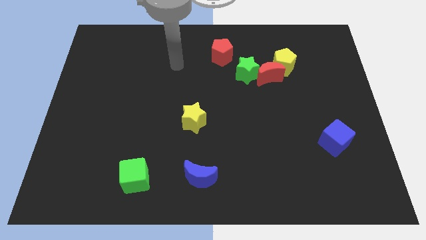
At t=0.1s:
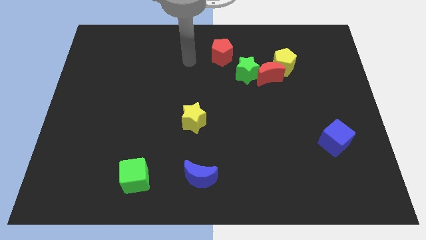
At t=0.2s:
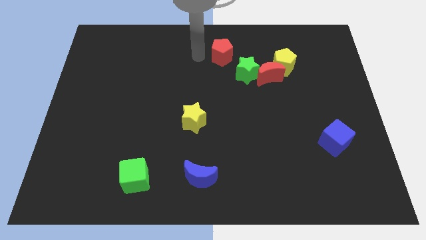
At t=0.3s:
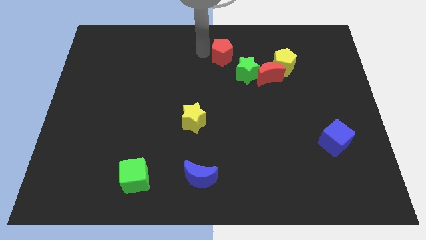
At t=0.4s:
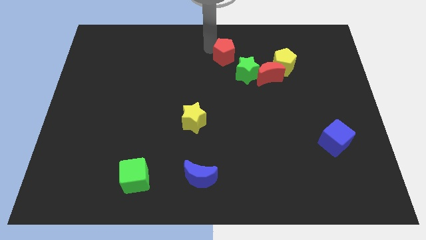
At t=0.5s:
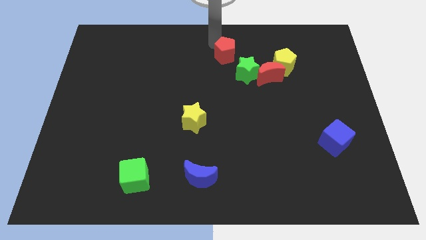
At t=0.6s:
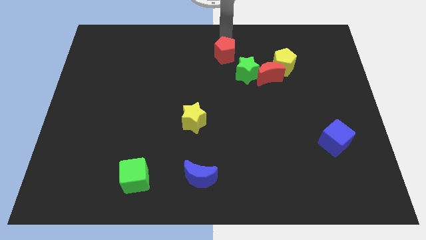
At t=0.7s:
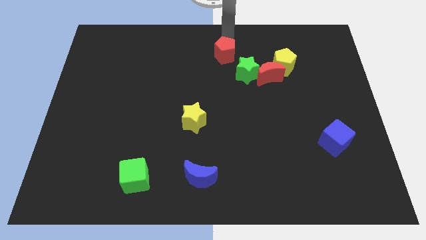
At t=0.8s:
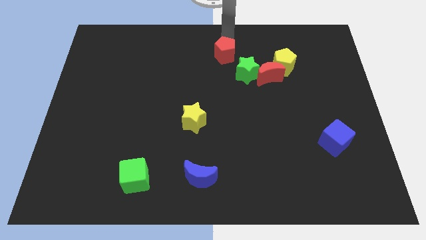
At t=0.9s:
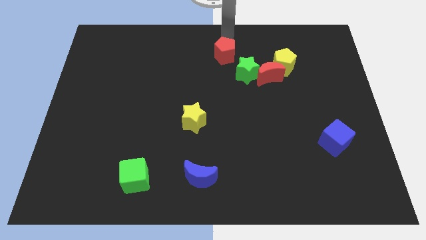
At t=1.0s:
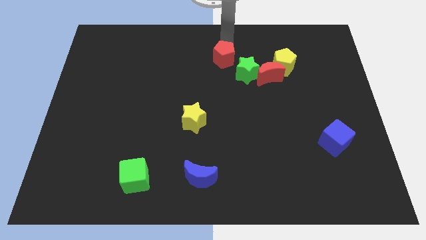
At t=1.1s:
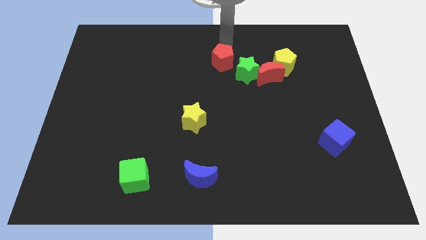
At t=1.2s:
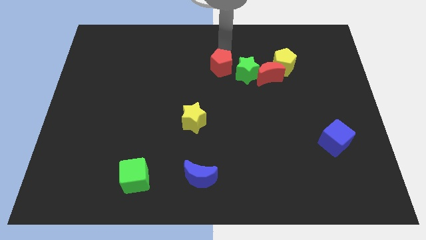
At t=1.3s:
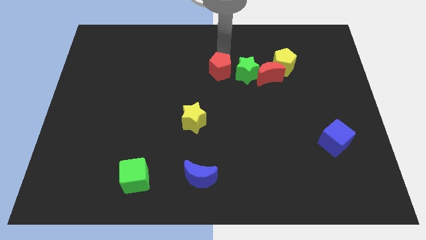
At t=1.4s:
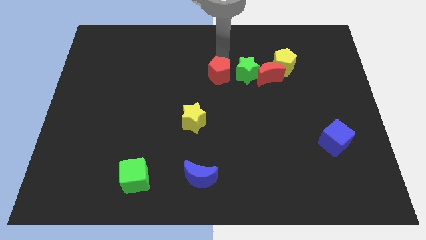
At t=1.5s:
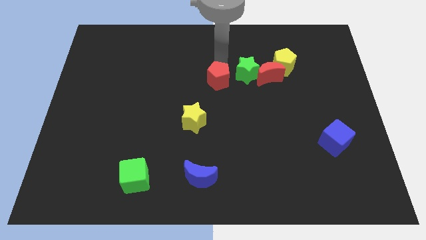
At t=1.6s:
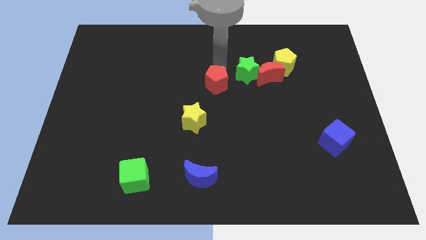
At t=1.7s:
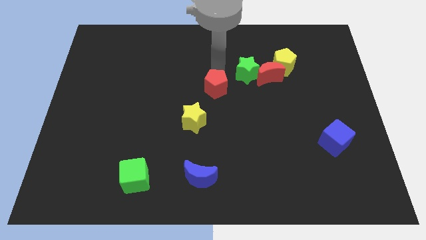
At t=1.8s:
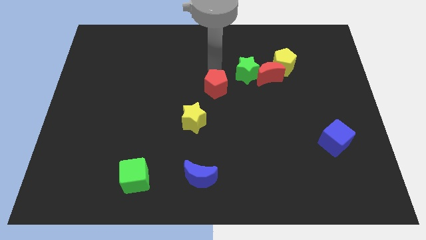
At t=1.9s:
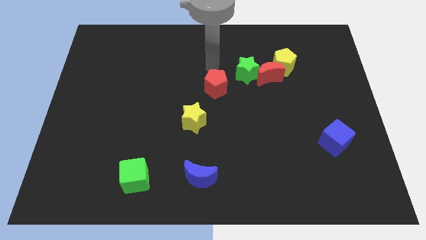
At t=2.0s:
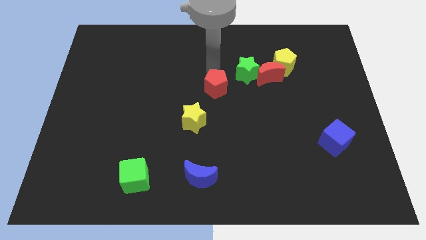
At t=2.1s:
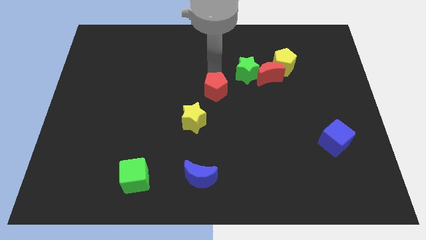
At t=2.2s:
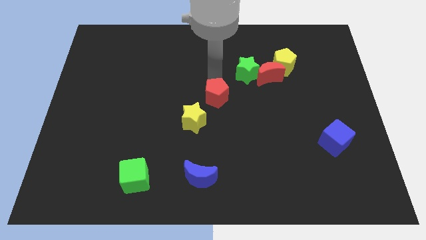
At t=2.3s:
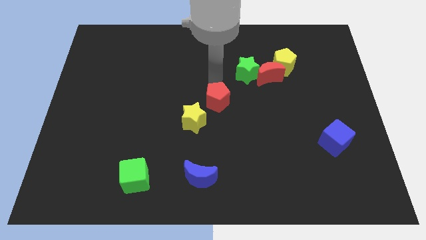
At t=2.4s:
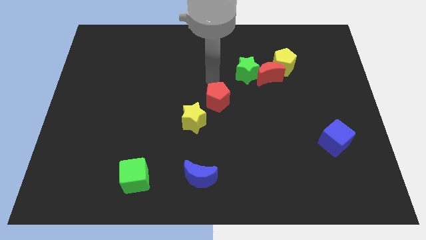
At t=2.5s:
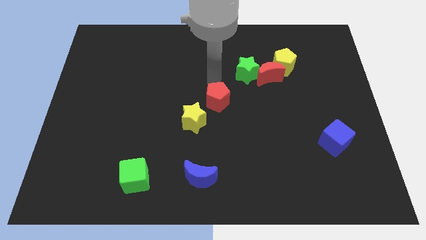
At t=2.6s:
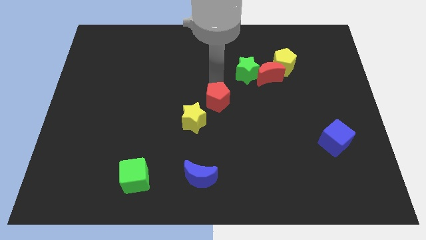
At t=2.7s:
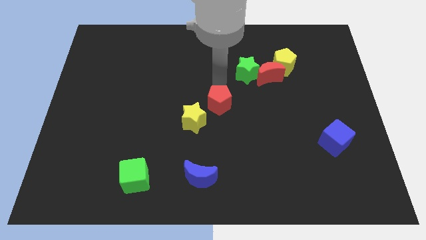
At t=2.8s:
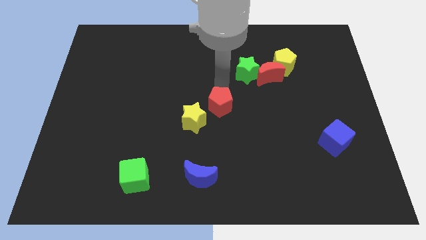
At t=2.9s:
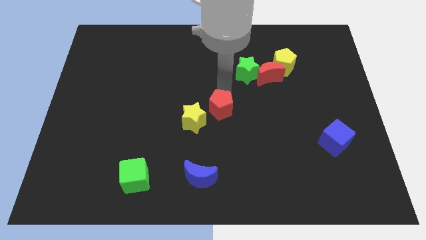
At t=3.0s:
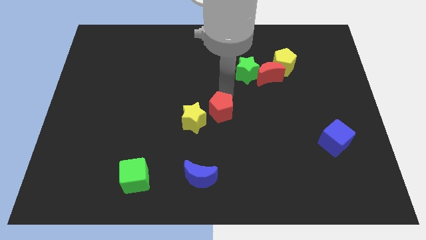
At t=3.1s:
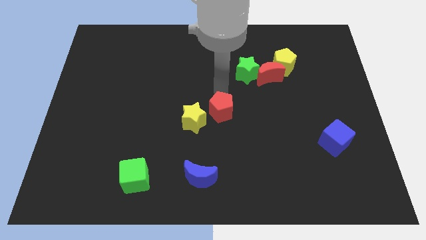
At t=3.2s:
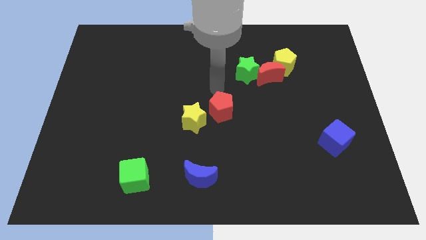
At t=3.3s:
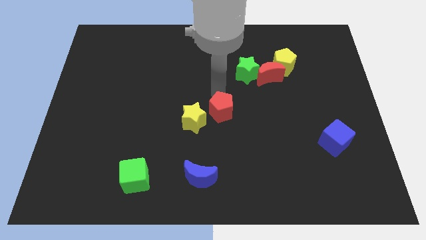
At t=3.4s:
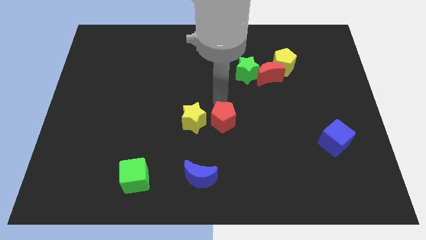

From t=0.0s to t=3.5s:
slide the red pentagon down

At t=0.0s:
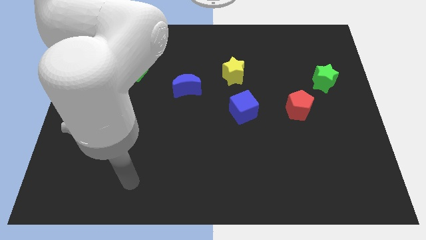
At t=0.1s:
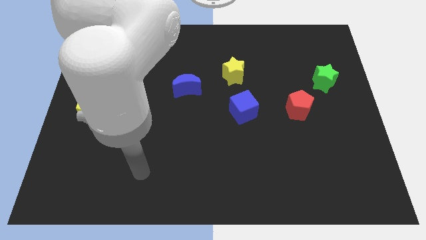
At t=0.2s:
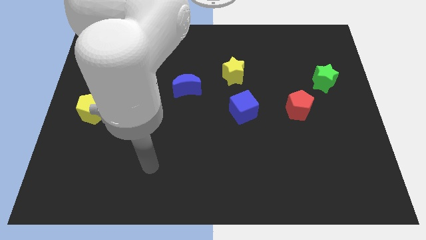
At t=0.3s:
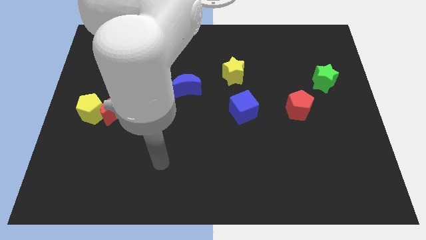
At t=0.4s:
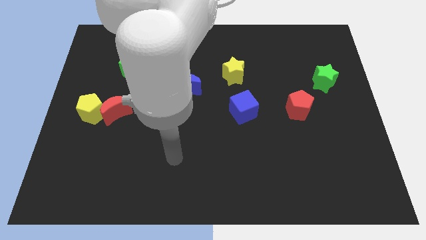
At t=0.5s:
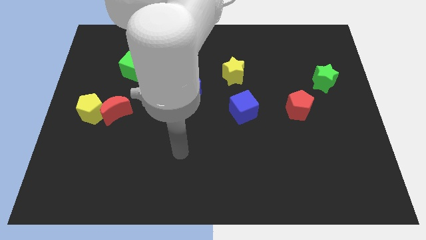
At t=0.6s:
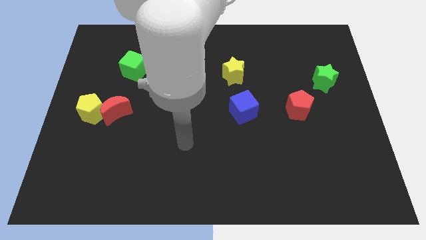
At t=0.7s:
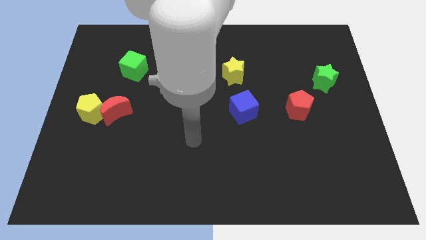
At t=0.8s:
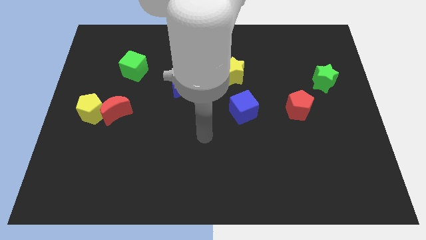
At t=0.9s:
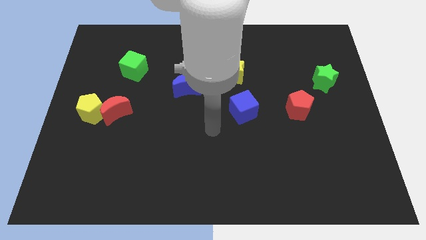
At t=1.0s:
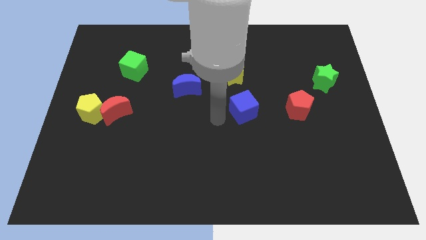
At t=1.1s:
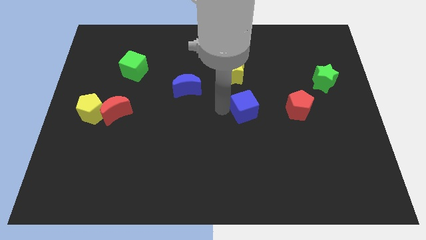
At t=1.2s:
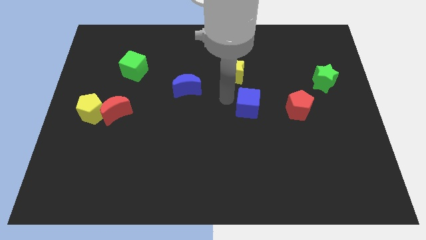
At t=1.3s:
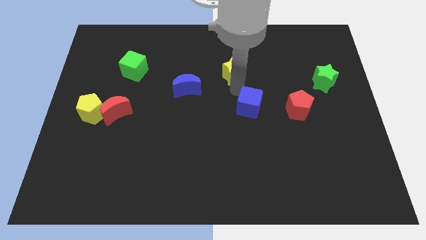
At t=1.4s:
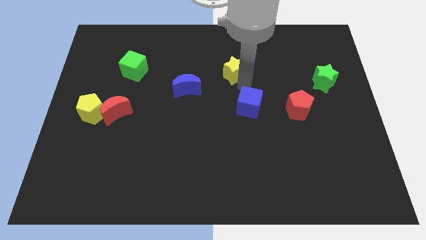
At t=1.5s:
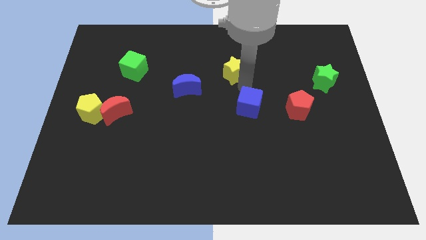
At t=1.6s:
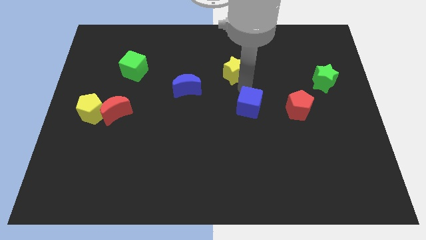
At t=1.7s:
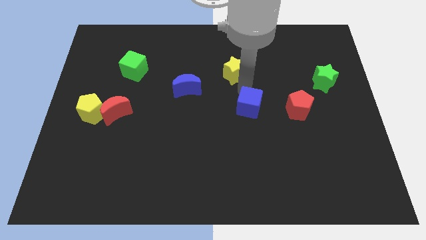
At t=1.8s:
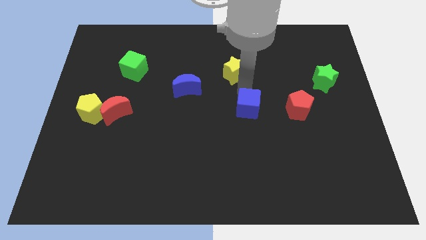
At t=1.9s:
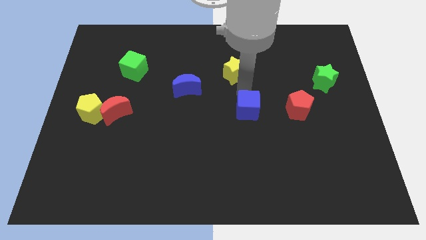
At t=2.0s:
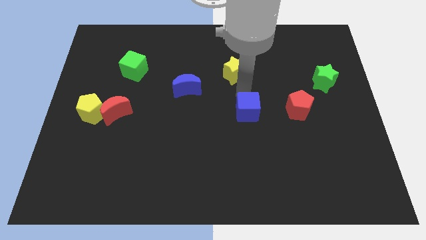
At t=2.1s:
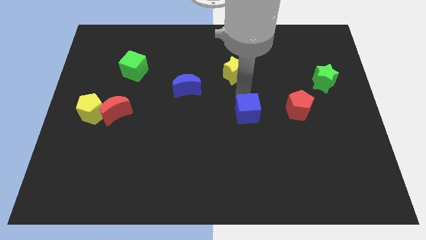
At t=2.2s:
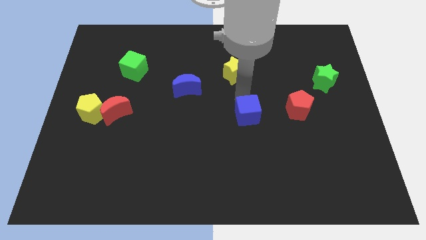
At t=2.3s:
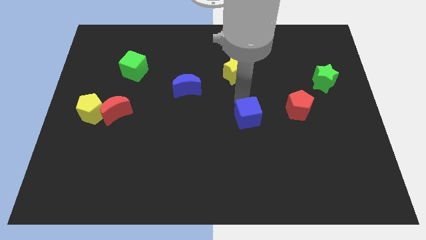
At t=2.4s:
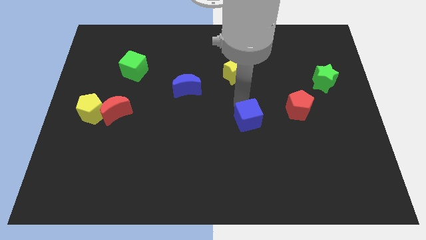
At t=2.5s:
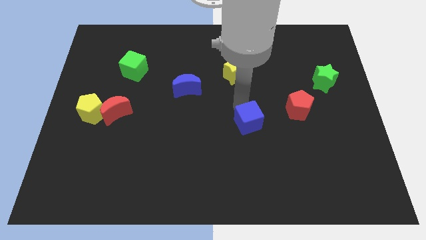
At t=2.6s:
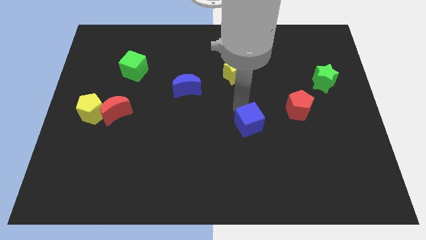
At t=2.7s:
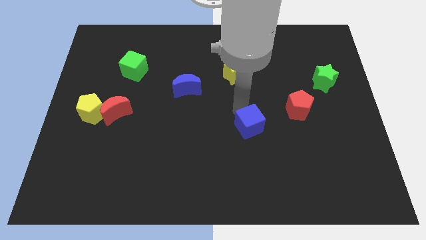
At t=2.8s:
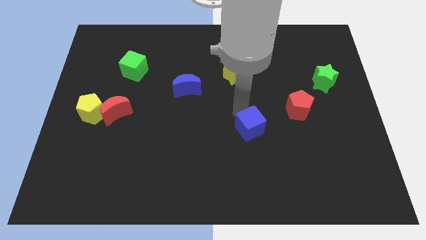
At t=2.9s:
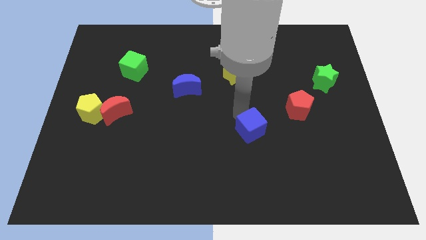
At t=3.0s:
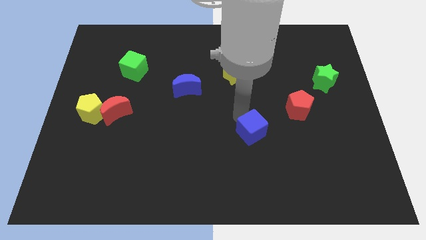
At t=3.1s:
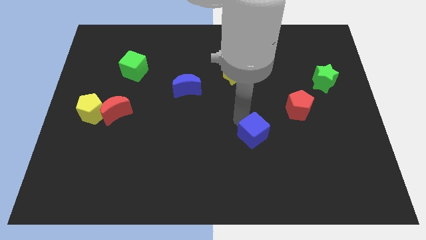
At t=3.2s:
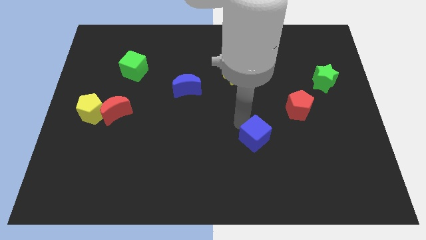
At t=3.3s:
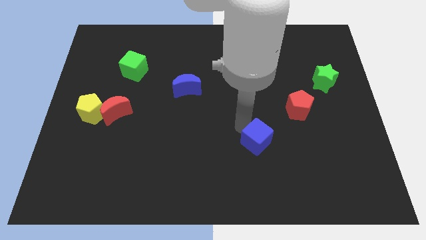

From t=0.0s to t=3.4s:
slide the blue cube a bit downwards and to the right

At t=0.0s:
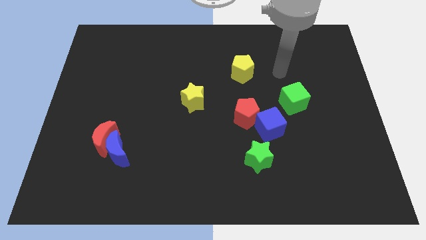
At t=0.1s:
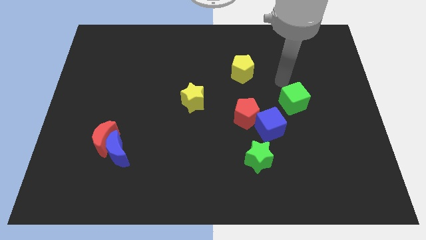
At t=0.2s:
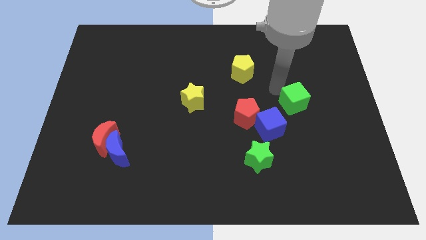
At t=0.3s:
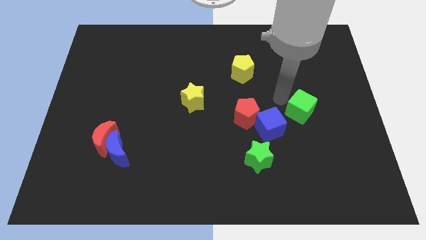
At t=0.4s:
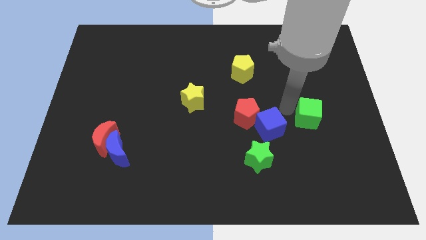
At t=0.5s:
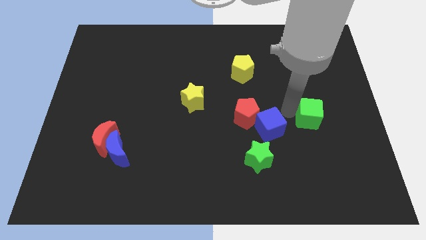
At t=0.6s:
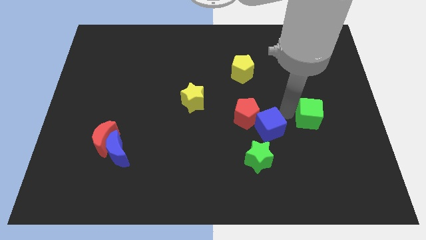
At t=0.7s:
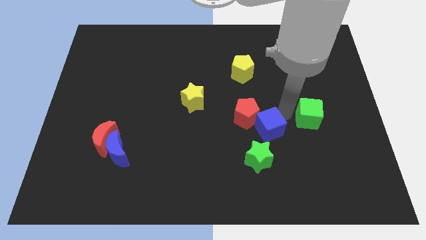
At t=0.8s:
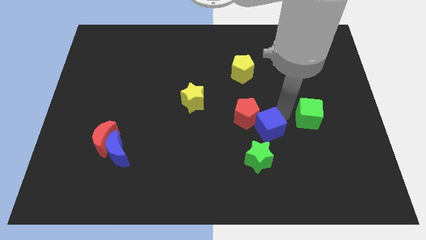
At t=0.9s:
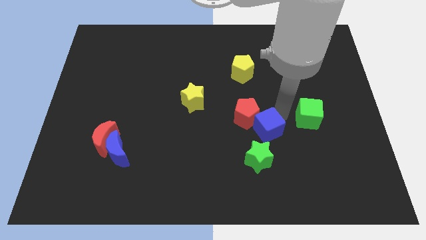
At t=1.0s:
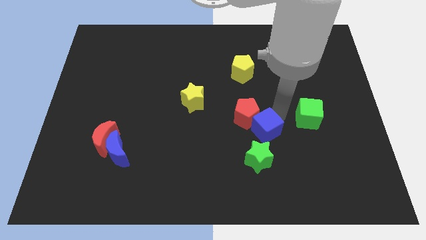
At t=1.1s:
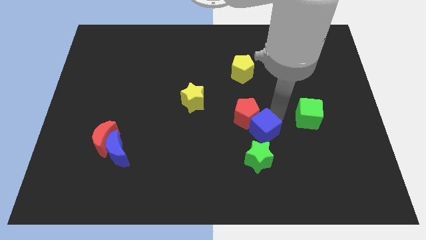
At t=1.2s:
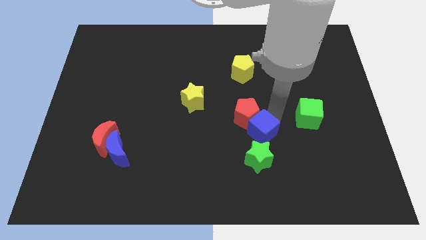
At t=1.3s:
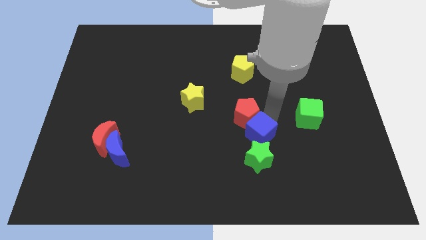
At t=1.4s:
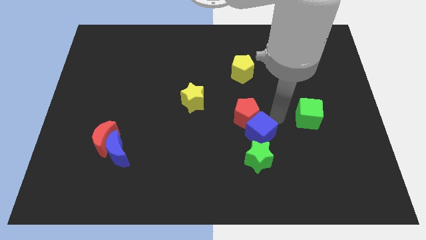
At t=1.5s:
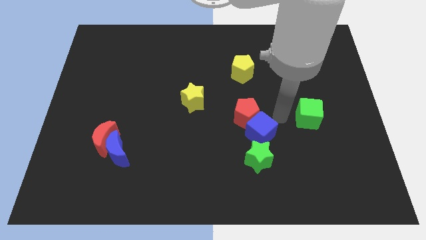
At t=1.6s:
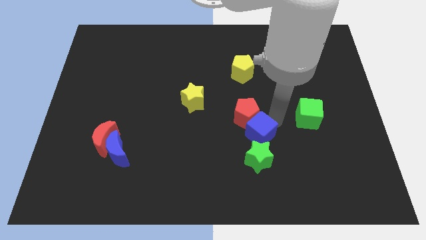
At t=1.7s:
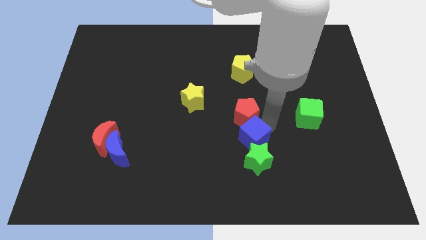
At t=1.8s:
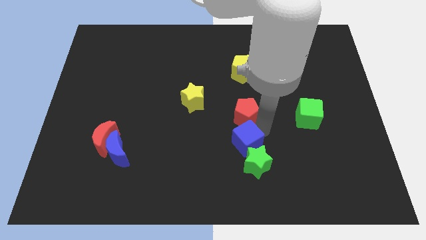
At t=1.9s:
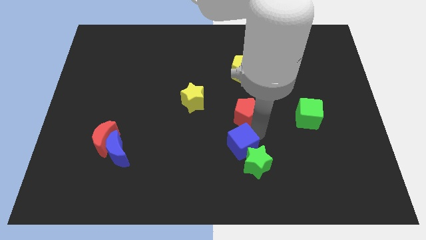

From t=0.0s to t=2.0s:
slightly slide the blue cube diagonally down and to the left
